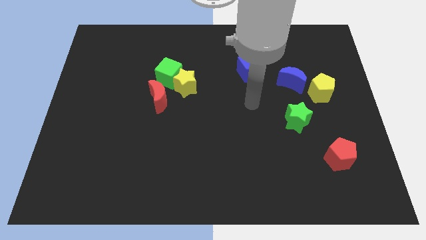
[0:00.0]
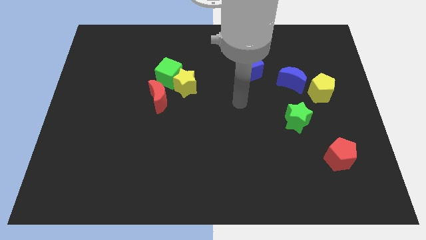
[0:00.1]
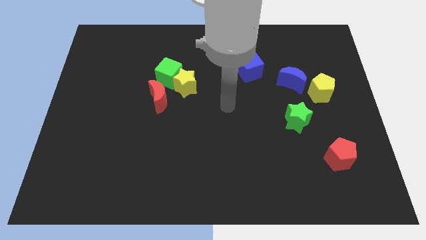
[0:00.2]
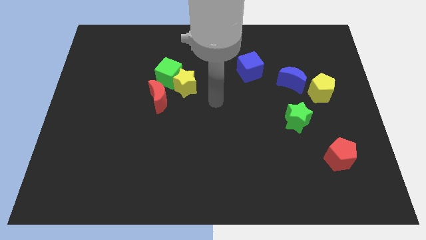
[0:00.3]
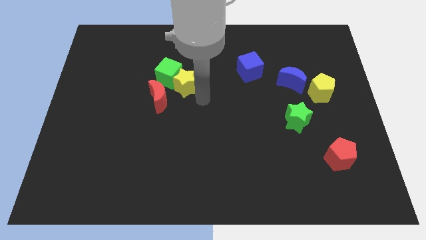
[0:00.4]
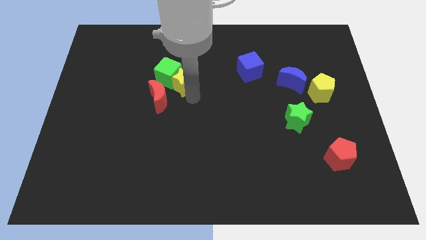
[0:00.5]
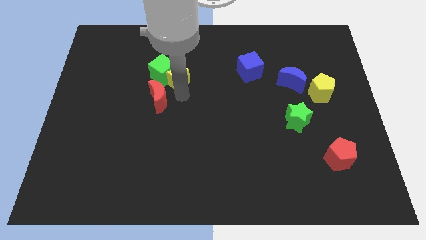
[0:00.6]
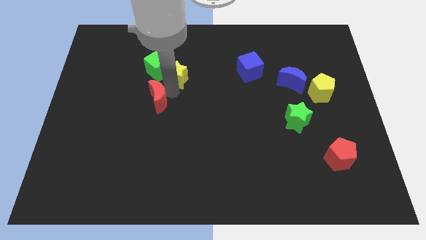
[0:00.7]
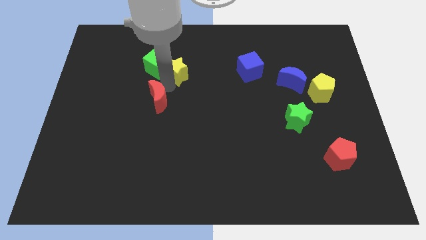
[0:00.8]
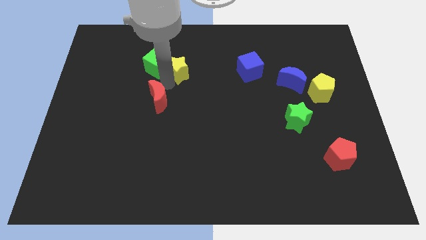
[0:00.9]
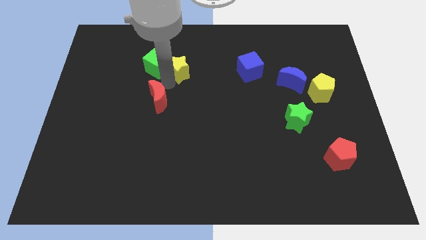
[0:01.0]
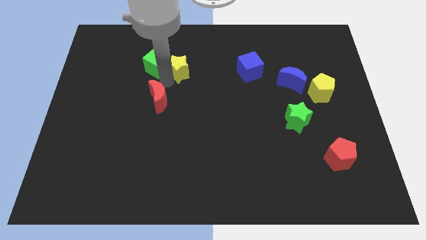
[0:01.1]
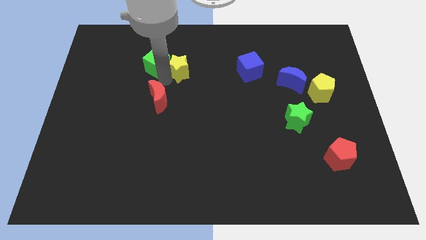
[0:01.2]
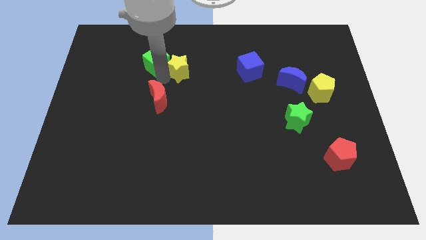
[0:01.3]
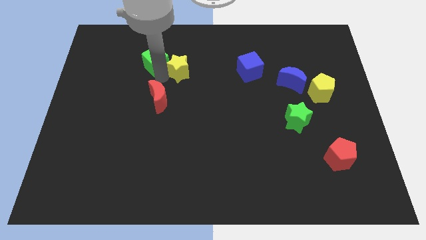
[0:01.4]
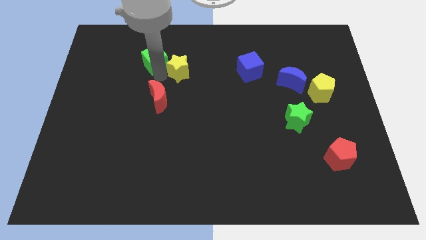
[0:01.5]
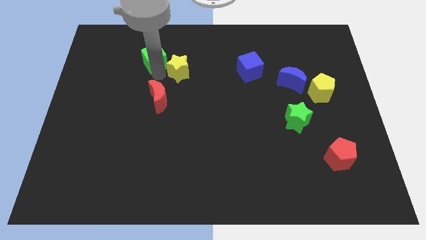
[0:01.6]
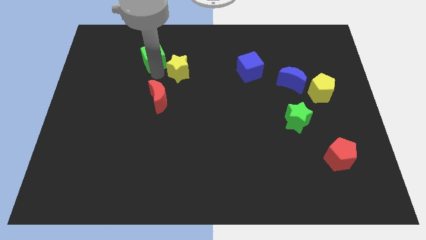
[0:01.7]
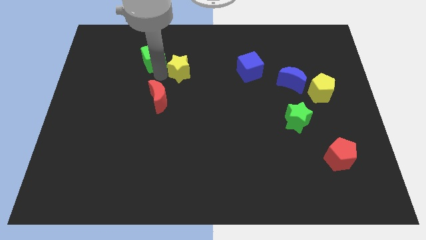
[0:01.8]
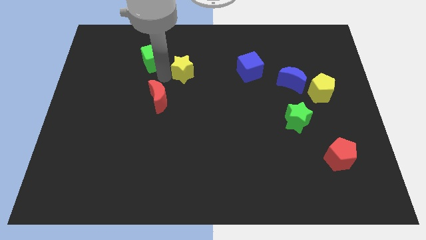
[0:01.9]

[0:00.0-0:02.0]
move the green cube away from the yellow star and red moon

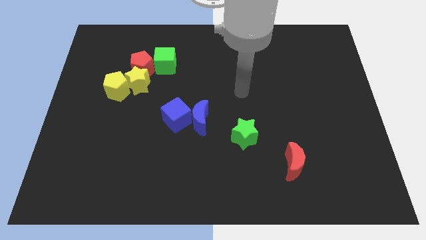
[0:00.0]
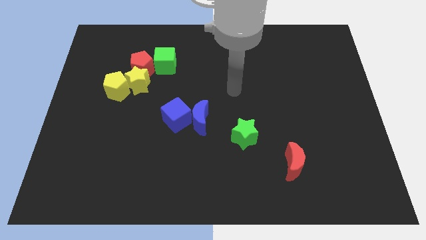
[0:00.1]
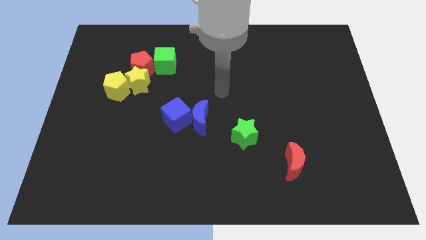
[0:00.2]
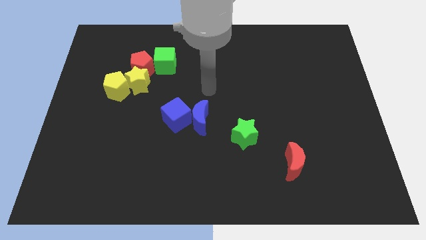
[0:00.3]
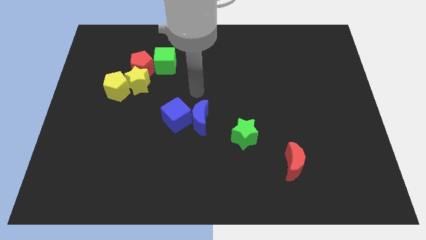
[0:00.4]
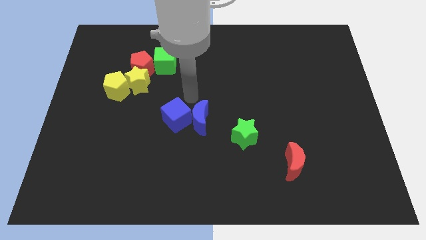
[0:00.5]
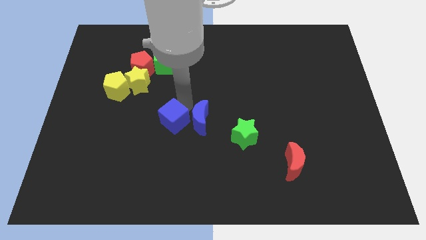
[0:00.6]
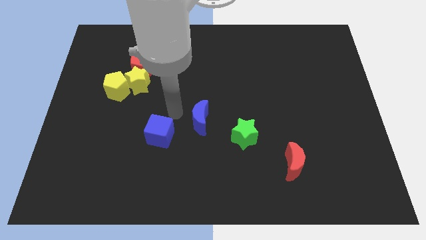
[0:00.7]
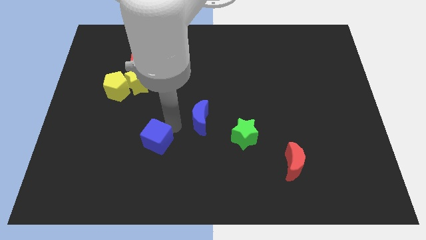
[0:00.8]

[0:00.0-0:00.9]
separate the blue moon from the blue cube

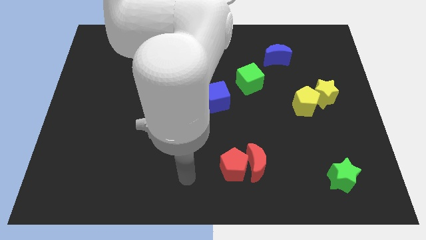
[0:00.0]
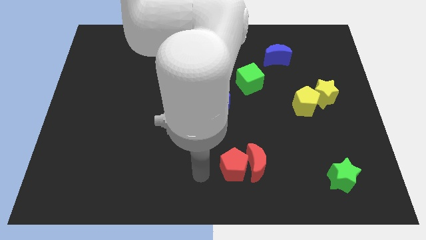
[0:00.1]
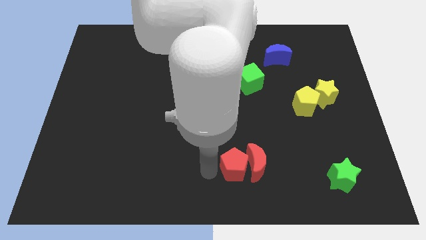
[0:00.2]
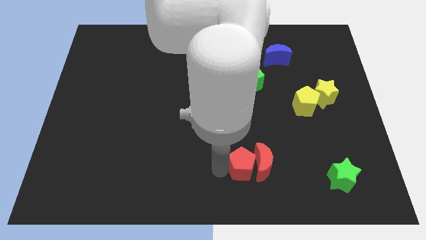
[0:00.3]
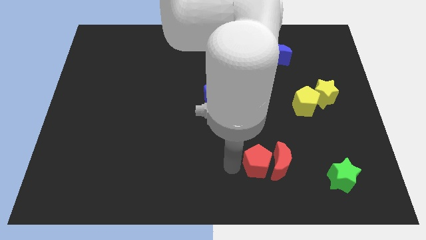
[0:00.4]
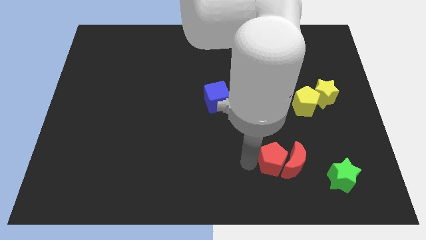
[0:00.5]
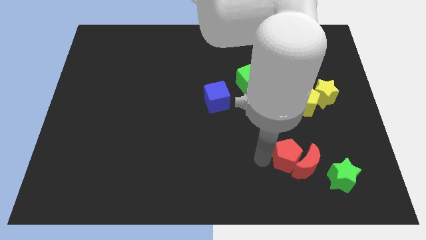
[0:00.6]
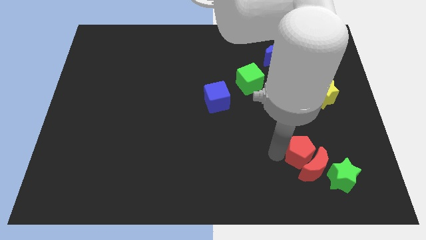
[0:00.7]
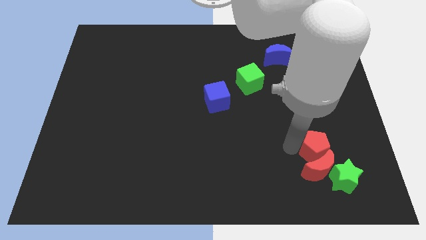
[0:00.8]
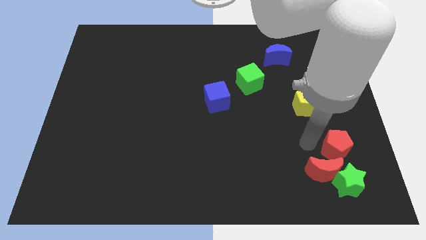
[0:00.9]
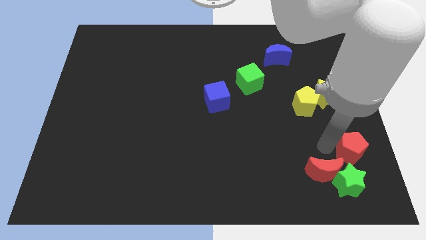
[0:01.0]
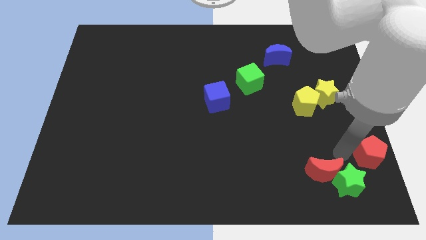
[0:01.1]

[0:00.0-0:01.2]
separate the red moon from the red pentagon

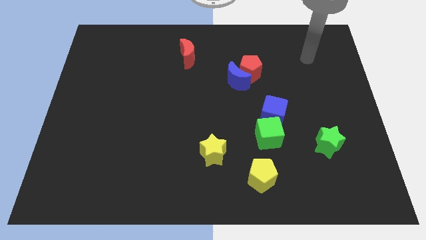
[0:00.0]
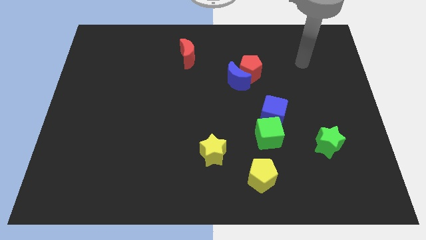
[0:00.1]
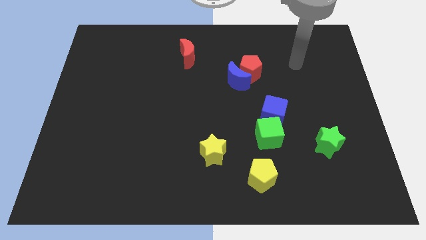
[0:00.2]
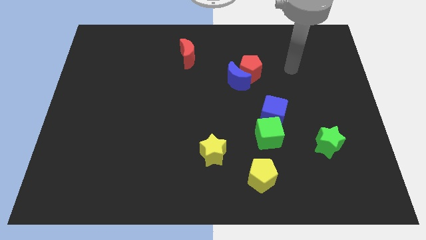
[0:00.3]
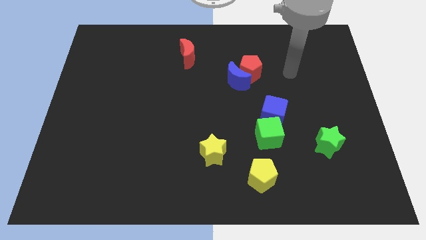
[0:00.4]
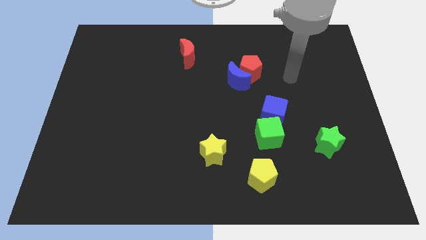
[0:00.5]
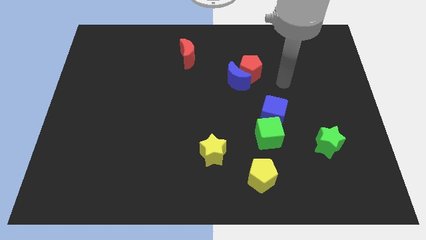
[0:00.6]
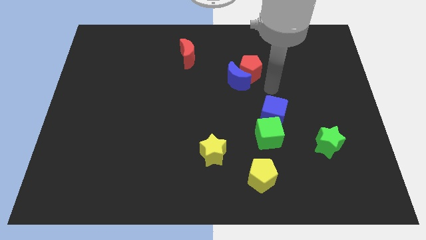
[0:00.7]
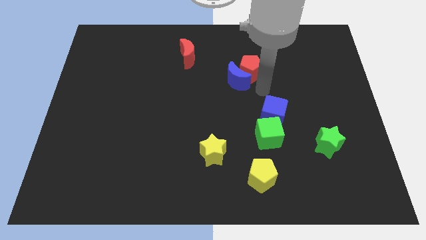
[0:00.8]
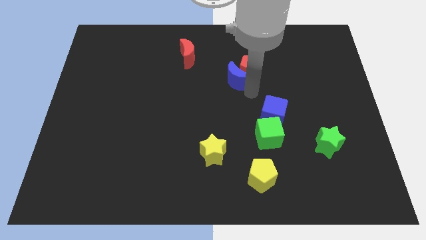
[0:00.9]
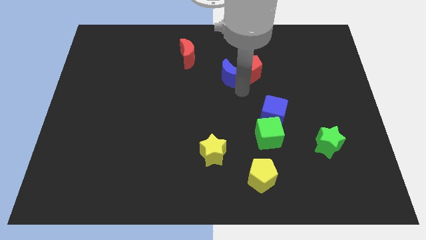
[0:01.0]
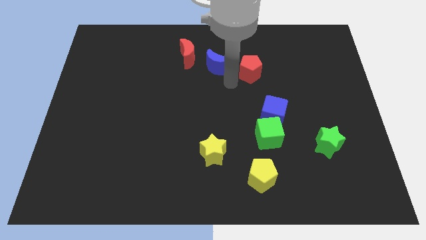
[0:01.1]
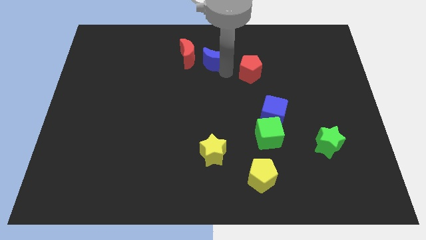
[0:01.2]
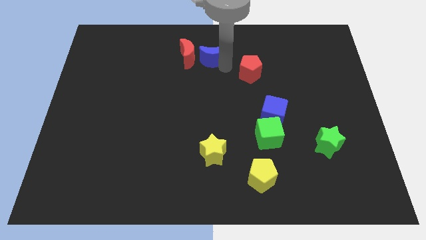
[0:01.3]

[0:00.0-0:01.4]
separate the red pentagon from the blue moon

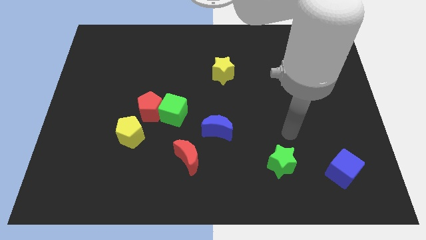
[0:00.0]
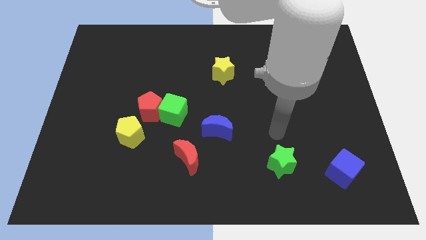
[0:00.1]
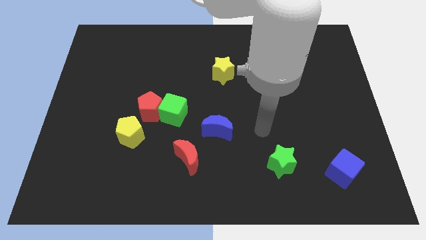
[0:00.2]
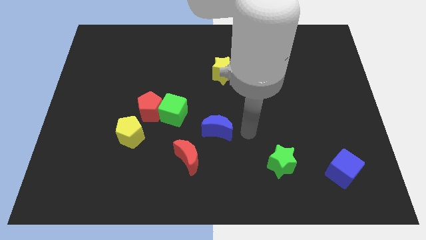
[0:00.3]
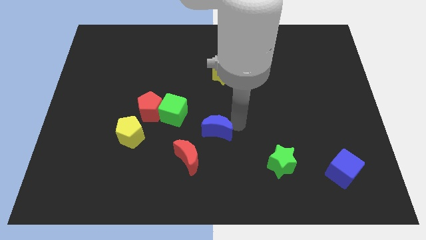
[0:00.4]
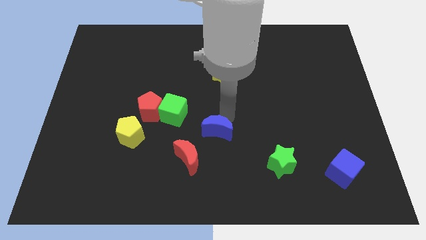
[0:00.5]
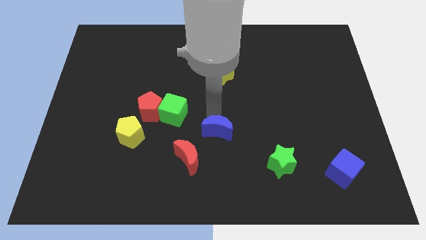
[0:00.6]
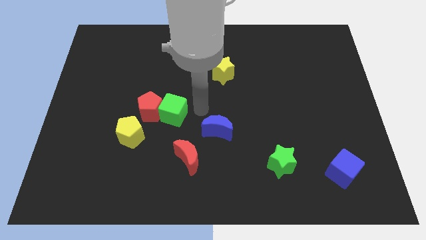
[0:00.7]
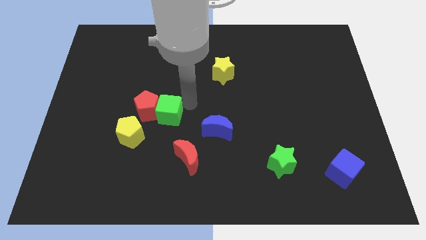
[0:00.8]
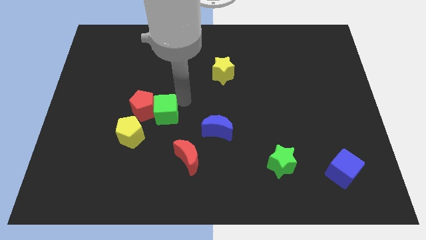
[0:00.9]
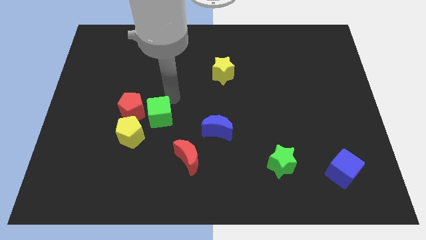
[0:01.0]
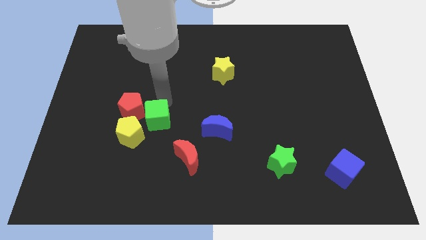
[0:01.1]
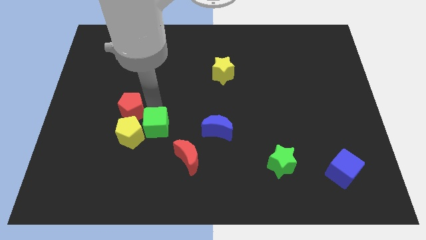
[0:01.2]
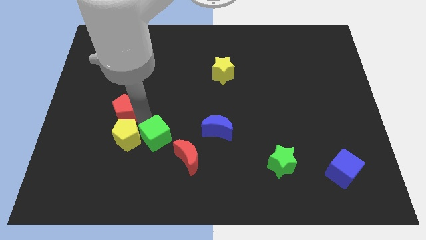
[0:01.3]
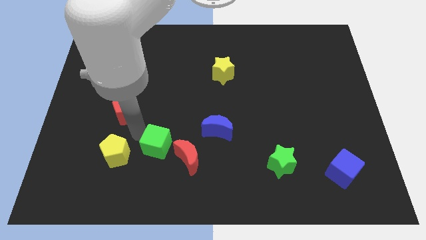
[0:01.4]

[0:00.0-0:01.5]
pull the green cube apart from the red pentagon

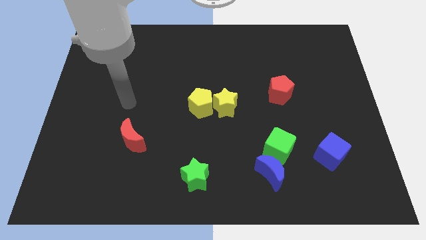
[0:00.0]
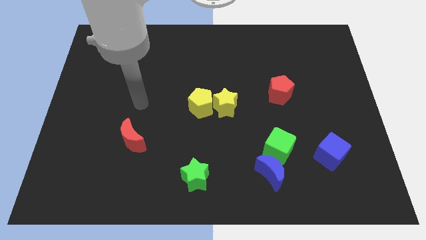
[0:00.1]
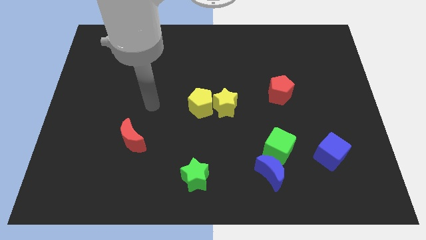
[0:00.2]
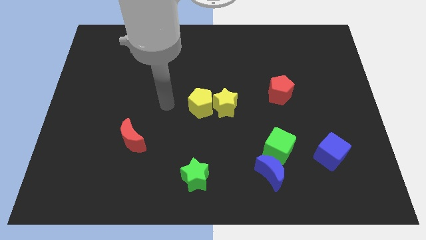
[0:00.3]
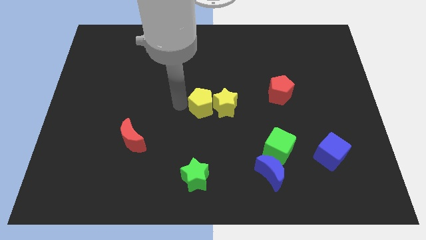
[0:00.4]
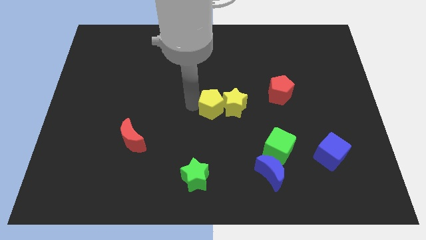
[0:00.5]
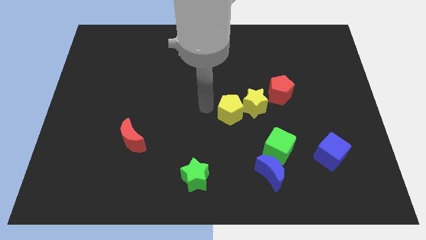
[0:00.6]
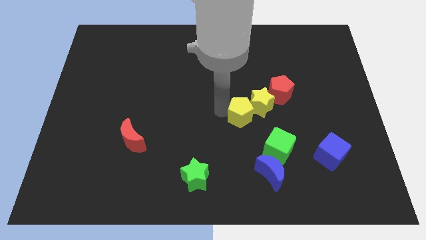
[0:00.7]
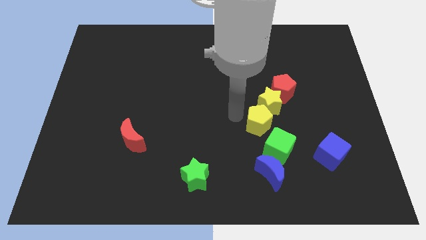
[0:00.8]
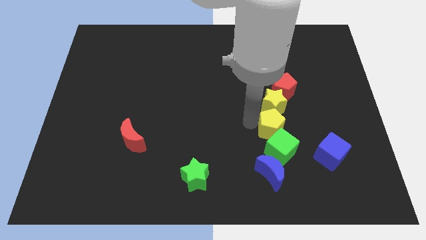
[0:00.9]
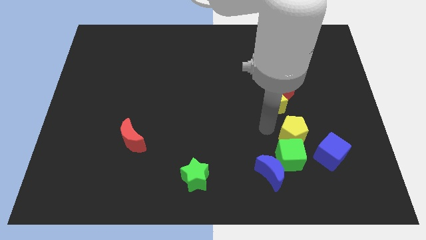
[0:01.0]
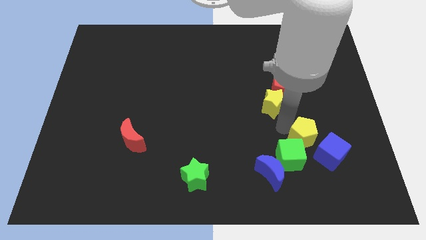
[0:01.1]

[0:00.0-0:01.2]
pull the yellow star apart from the yellow pentagon

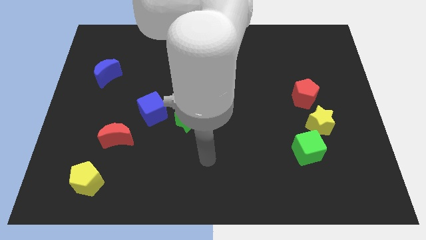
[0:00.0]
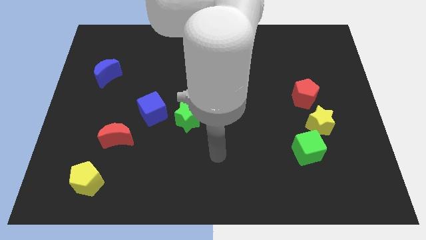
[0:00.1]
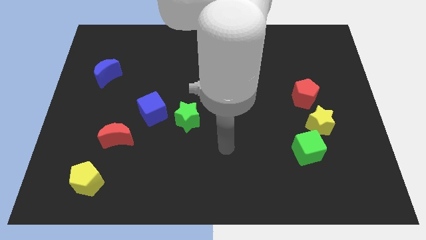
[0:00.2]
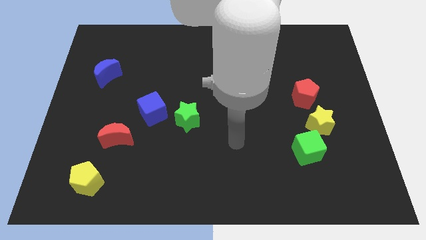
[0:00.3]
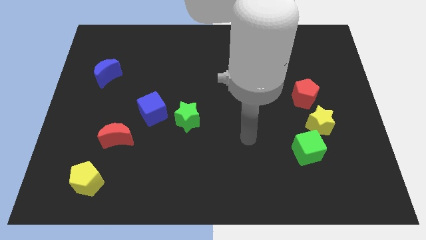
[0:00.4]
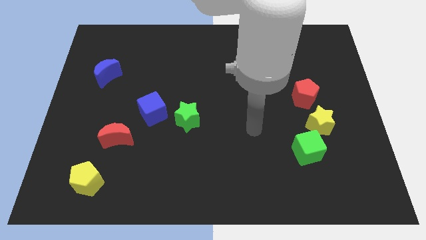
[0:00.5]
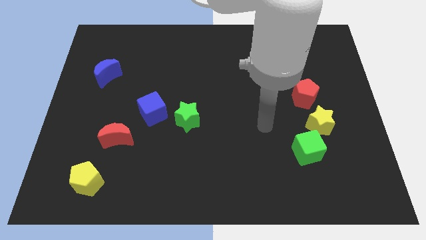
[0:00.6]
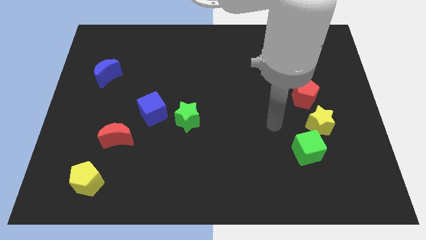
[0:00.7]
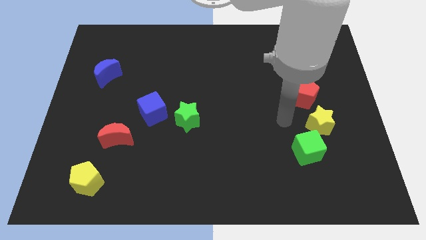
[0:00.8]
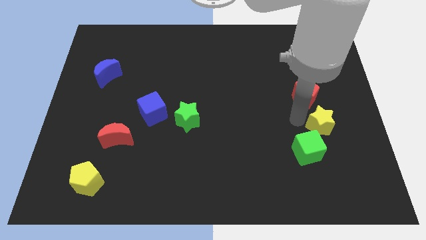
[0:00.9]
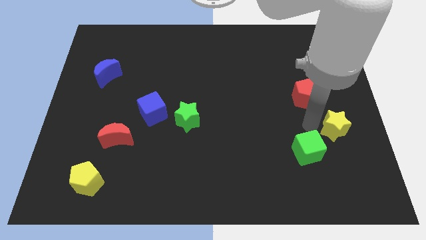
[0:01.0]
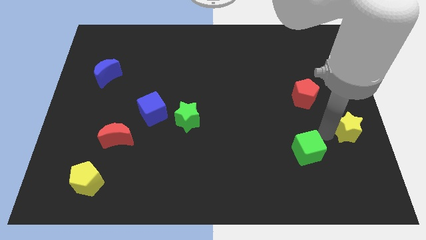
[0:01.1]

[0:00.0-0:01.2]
move the green cube away from the yellow star

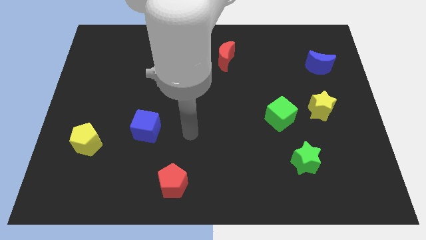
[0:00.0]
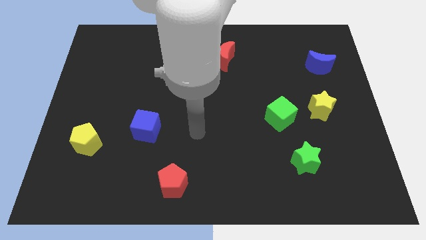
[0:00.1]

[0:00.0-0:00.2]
separate the green cube from the yellow star
